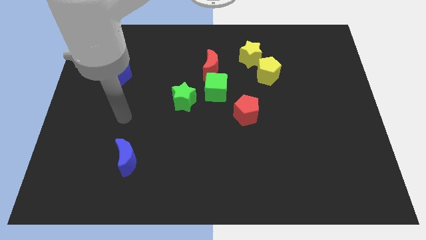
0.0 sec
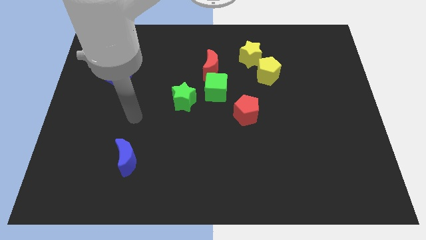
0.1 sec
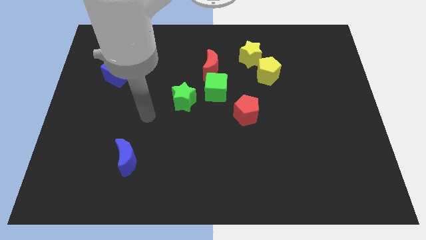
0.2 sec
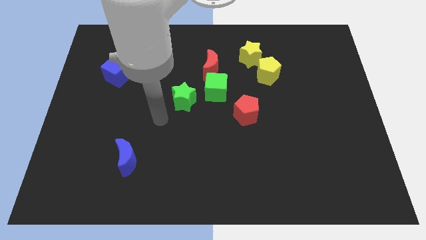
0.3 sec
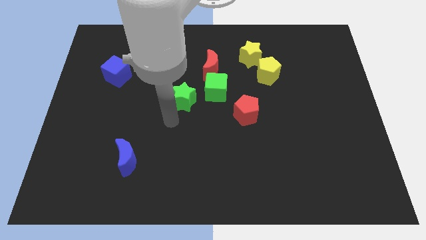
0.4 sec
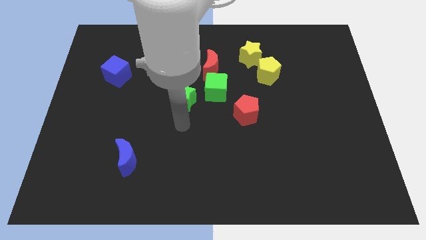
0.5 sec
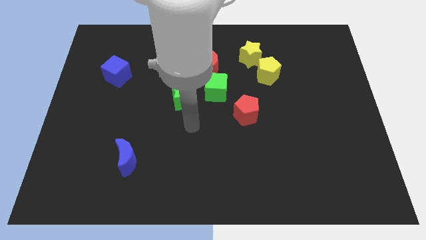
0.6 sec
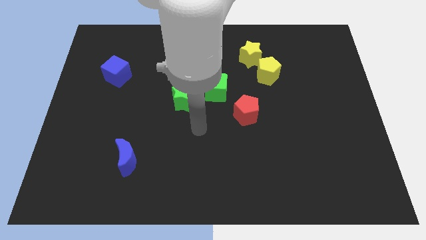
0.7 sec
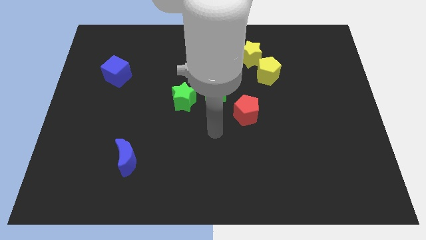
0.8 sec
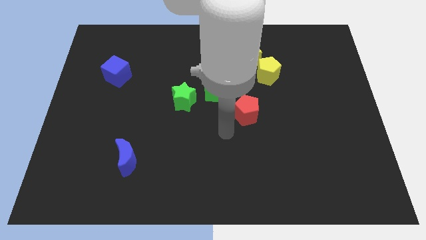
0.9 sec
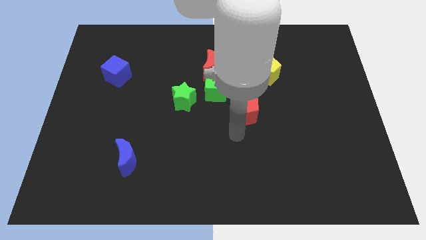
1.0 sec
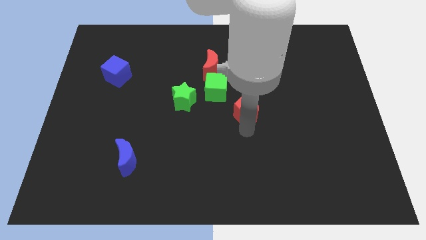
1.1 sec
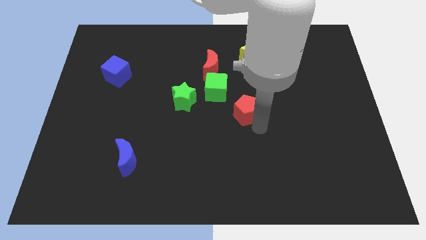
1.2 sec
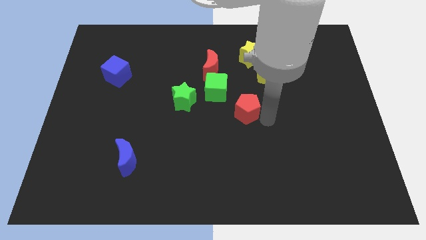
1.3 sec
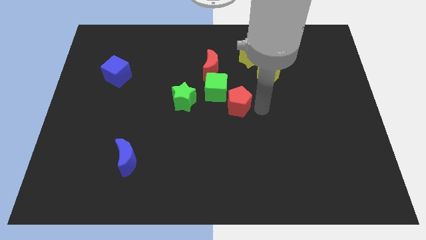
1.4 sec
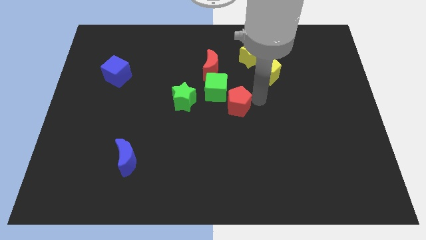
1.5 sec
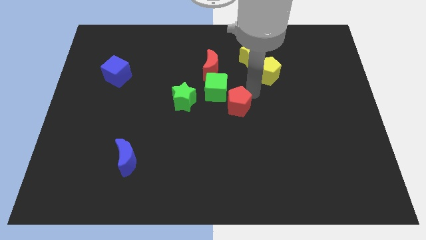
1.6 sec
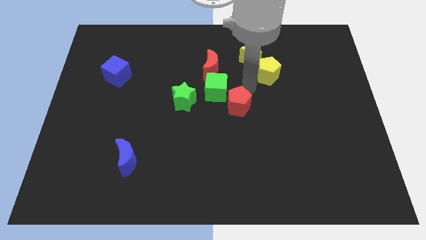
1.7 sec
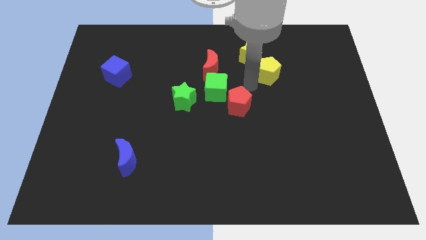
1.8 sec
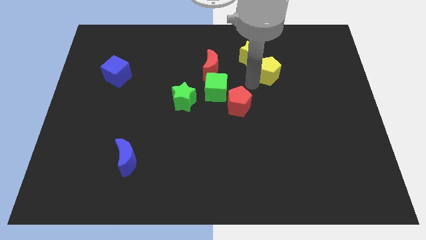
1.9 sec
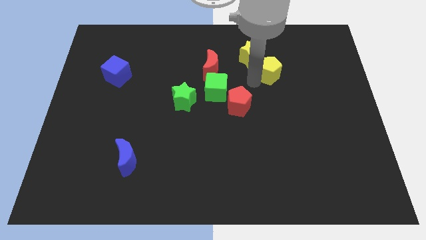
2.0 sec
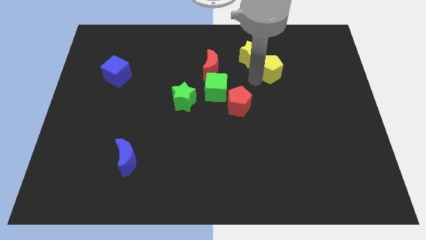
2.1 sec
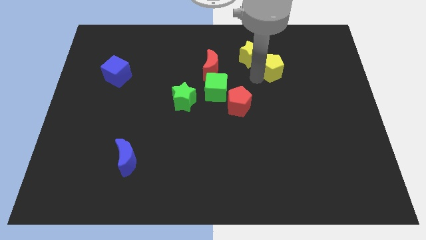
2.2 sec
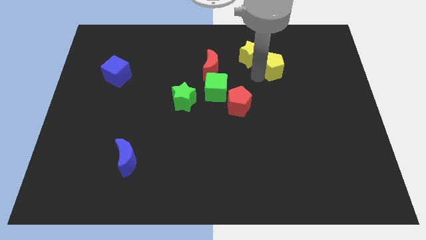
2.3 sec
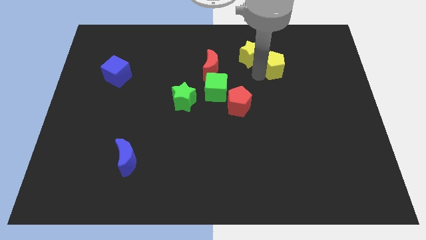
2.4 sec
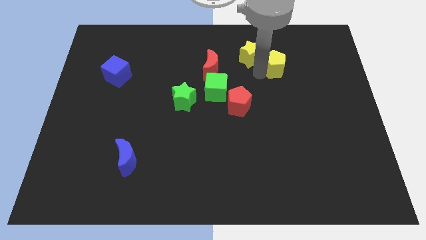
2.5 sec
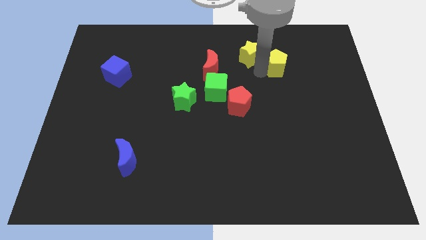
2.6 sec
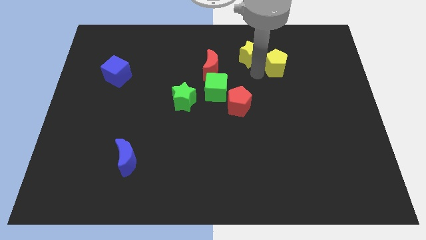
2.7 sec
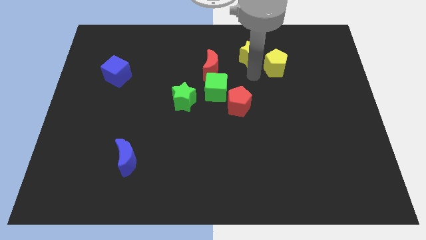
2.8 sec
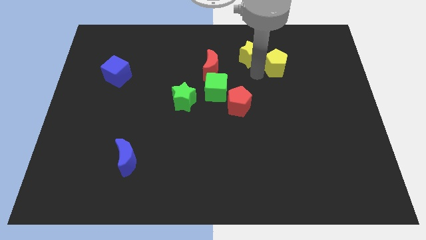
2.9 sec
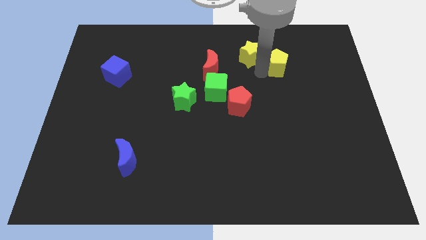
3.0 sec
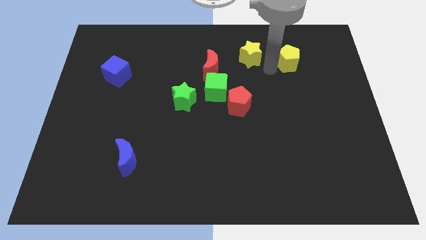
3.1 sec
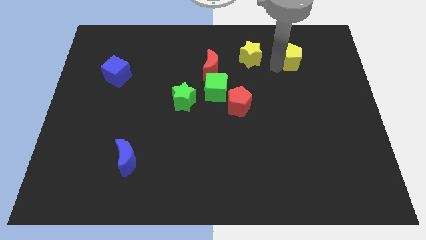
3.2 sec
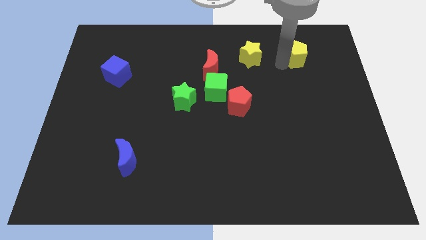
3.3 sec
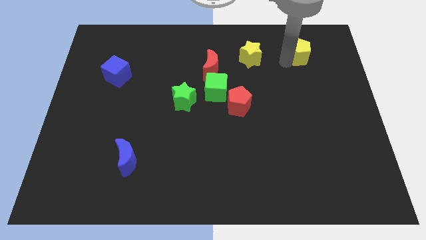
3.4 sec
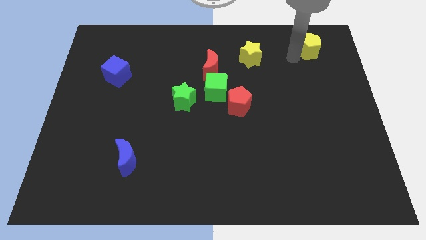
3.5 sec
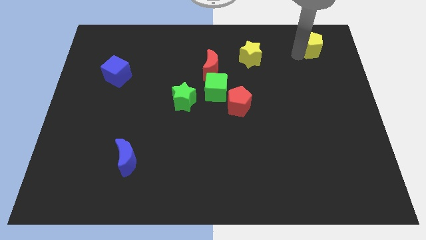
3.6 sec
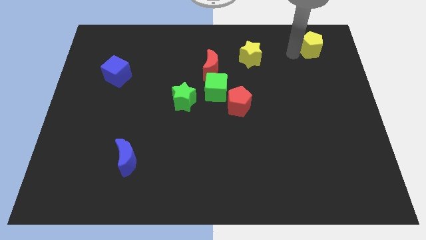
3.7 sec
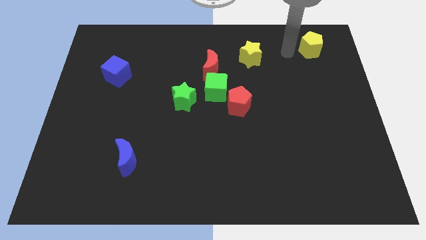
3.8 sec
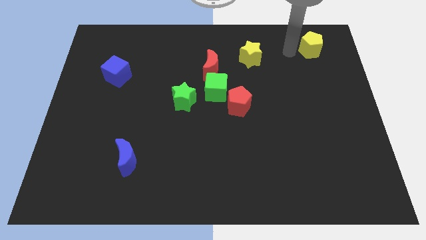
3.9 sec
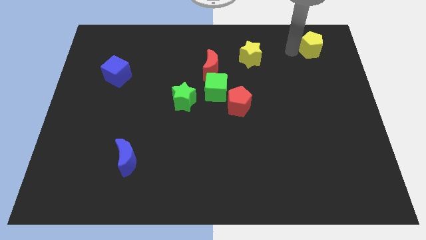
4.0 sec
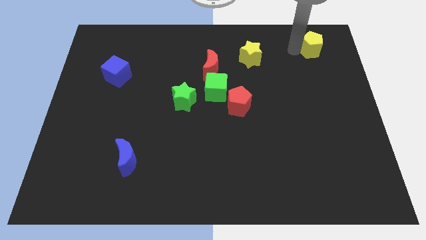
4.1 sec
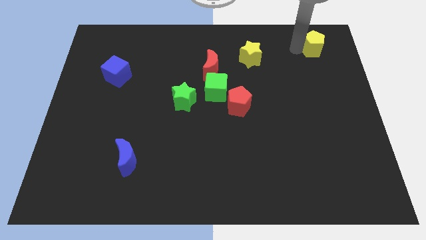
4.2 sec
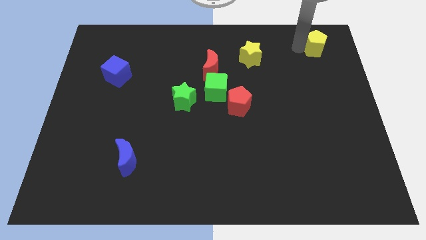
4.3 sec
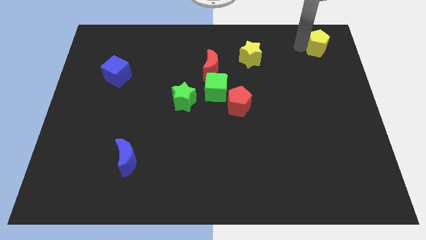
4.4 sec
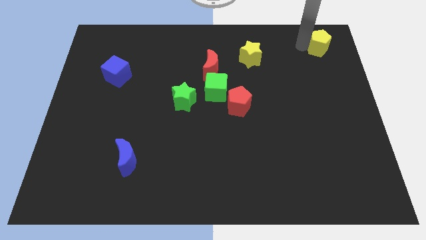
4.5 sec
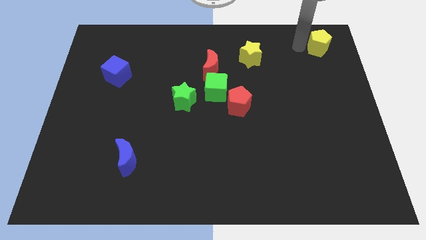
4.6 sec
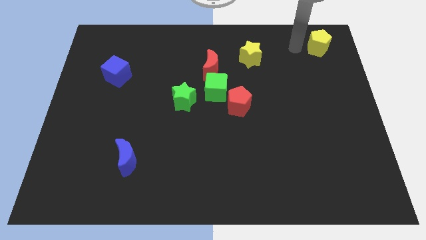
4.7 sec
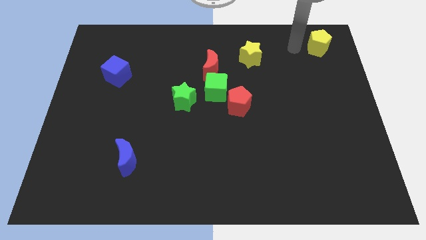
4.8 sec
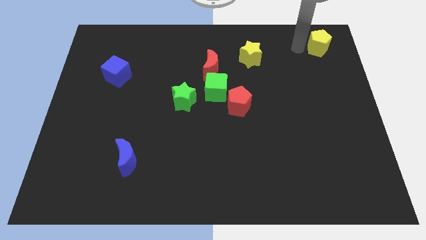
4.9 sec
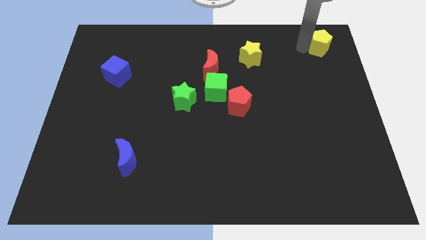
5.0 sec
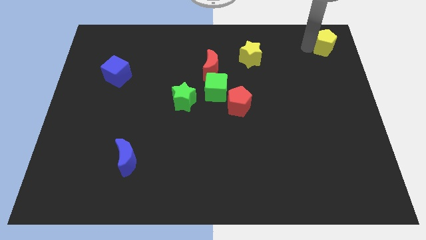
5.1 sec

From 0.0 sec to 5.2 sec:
move the yellow pentagon to the top right

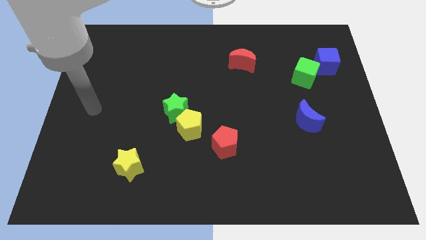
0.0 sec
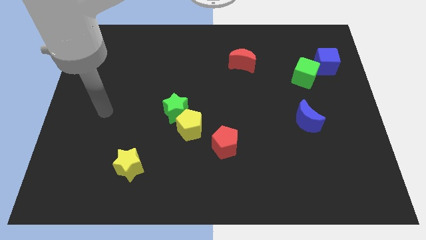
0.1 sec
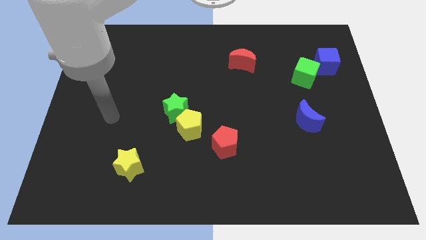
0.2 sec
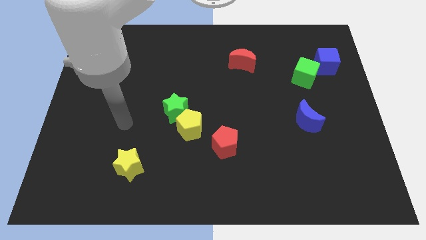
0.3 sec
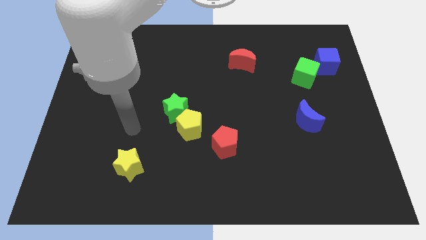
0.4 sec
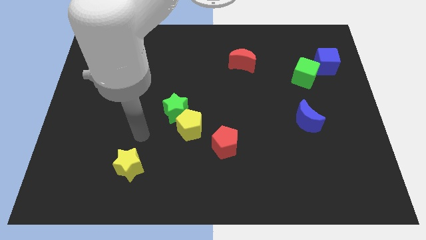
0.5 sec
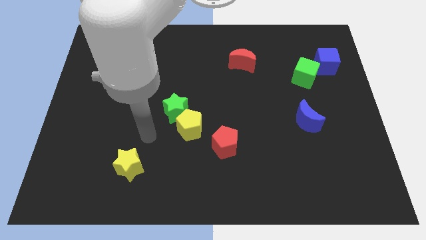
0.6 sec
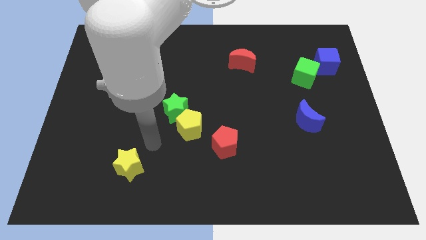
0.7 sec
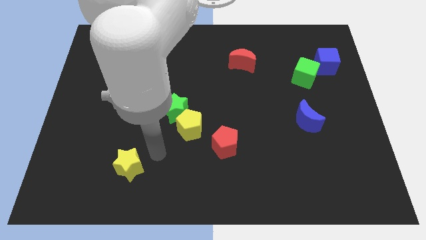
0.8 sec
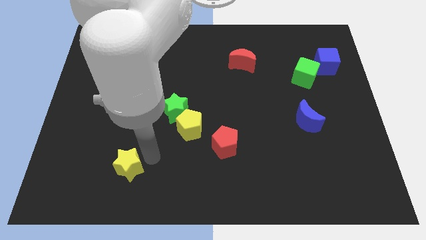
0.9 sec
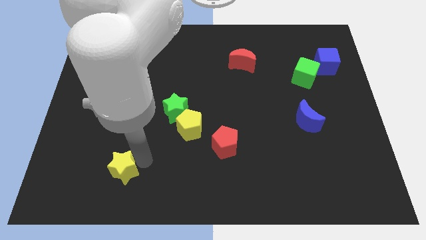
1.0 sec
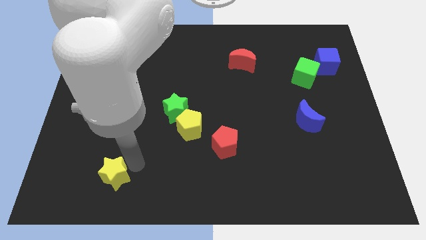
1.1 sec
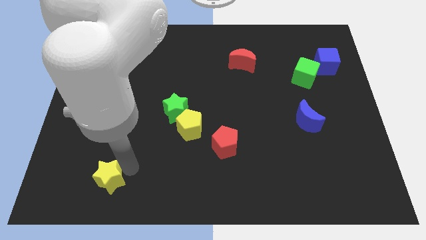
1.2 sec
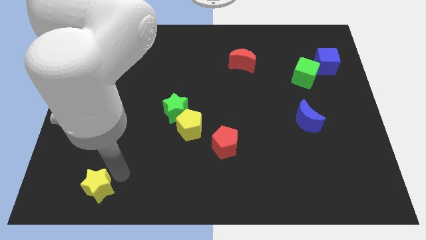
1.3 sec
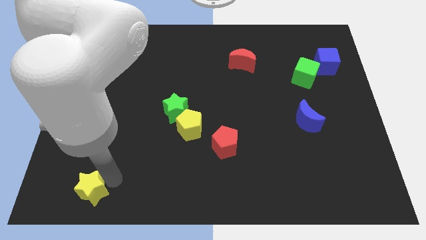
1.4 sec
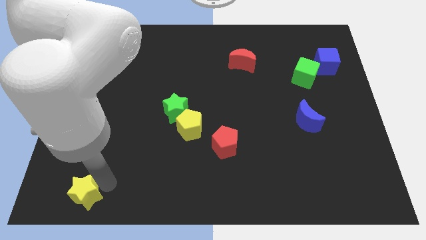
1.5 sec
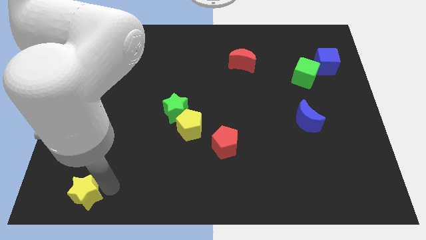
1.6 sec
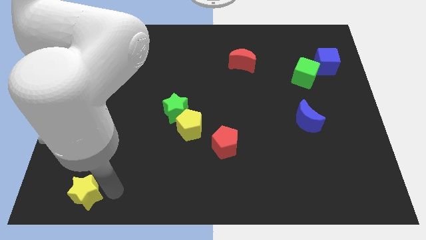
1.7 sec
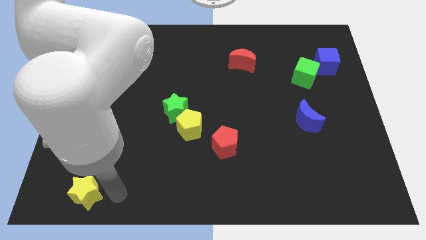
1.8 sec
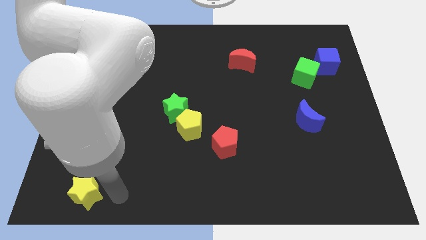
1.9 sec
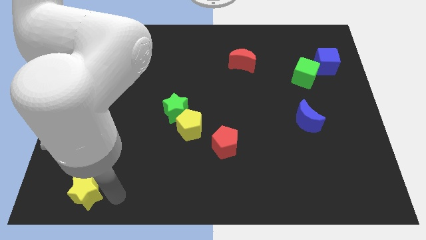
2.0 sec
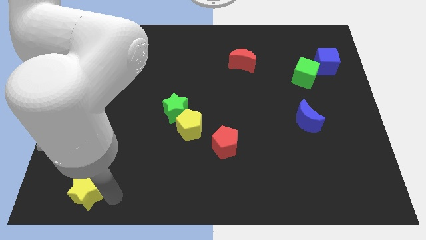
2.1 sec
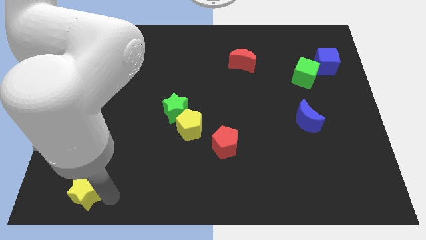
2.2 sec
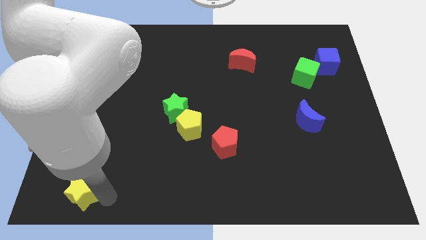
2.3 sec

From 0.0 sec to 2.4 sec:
put the yellow star to the lower left corner
